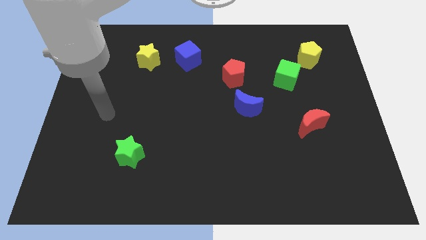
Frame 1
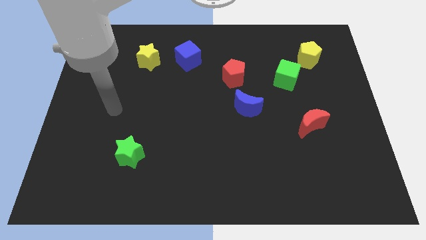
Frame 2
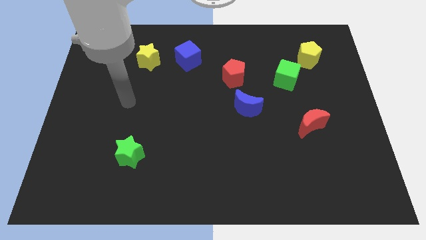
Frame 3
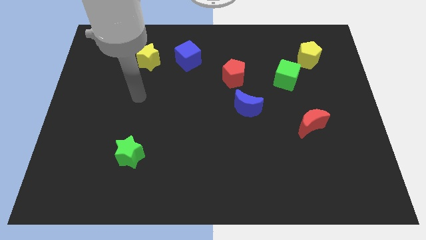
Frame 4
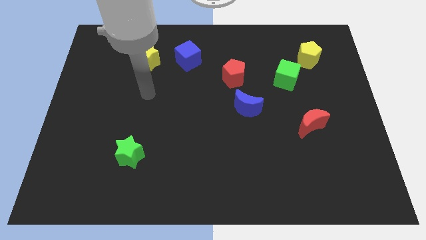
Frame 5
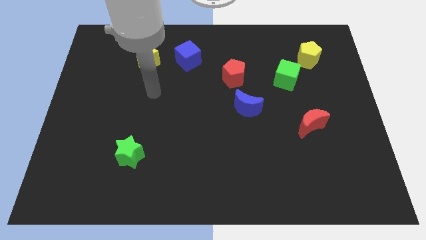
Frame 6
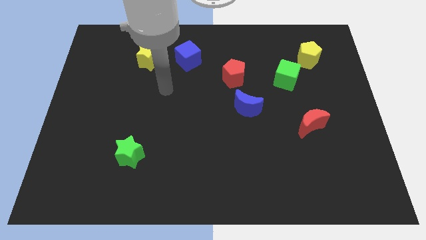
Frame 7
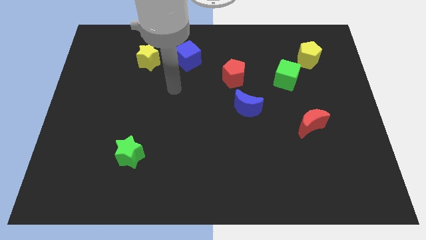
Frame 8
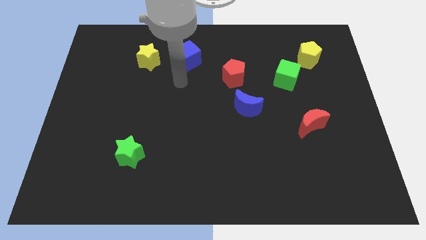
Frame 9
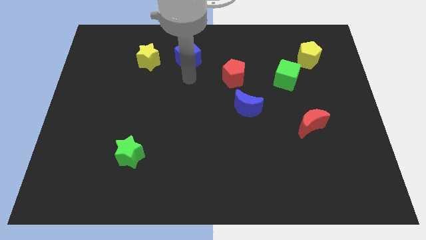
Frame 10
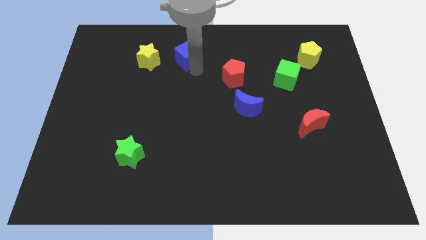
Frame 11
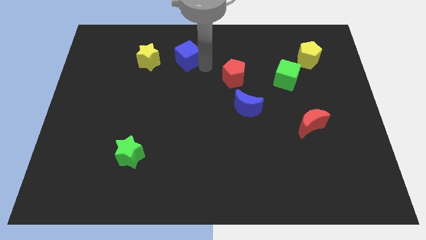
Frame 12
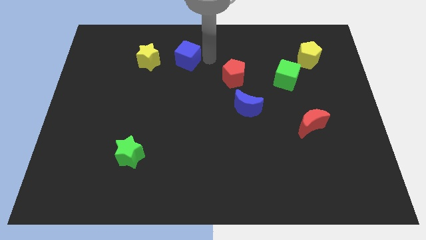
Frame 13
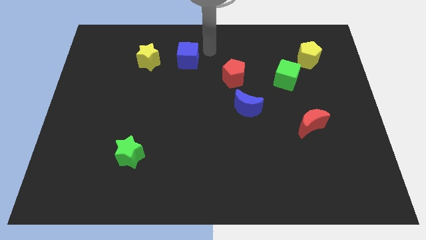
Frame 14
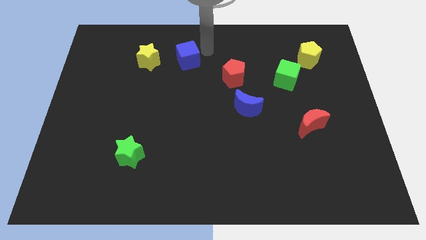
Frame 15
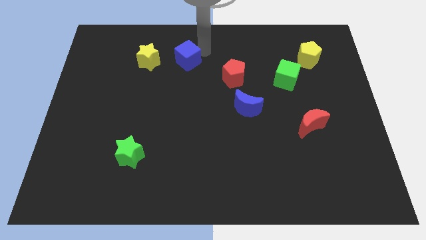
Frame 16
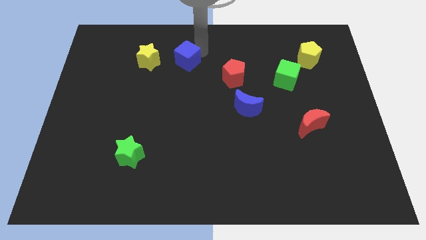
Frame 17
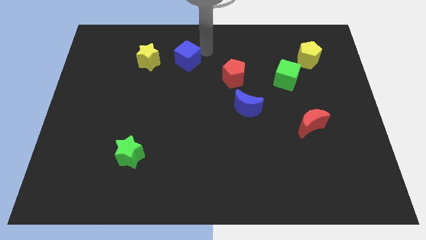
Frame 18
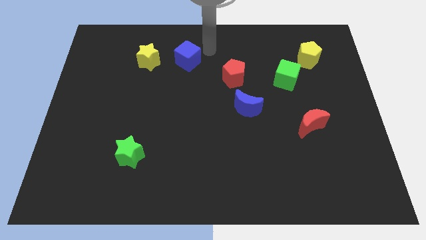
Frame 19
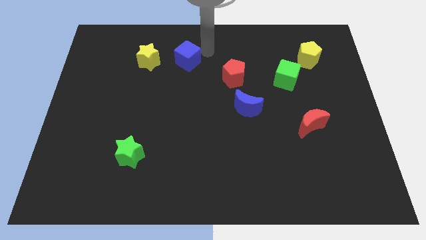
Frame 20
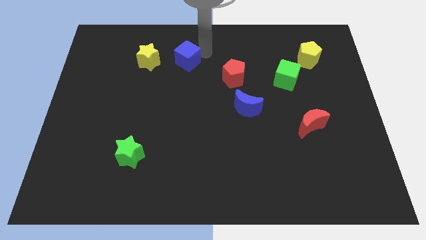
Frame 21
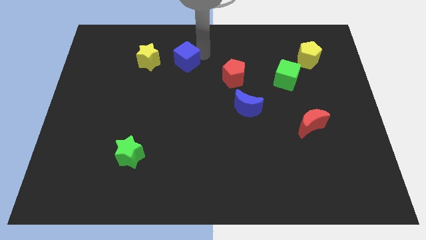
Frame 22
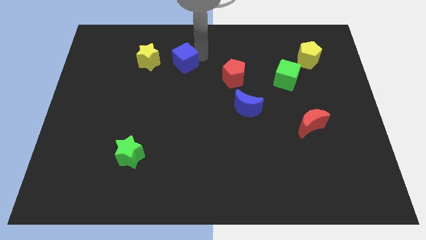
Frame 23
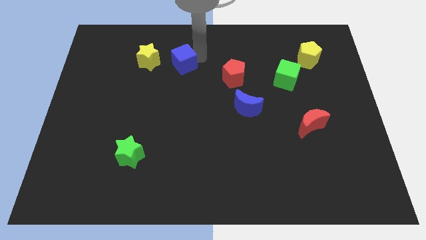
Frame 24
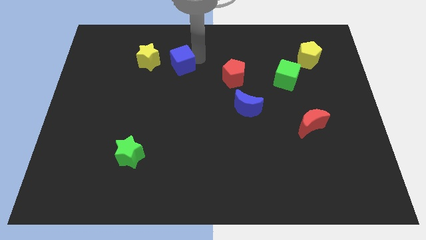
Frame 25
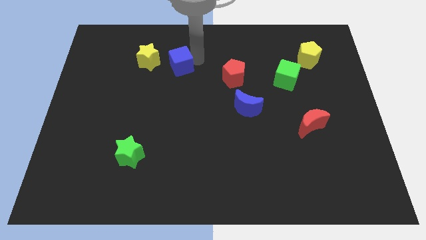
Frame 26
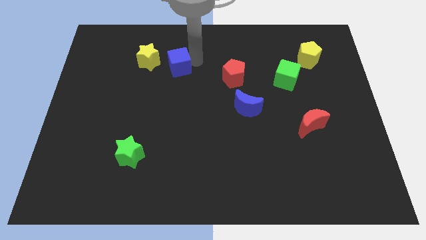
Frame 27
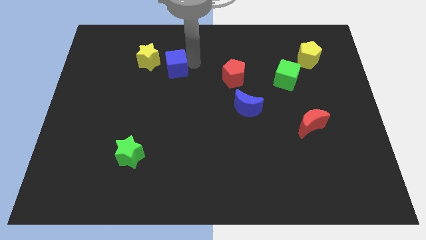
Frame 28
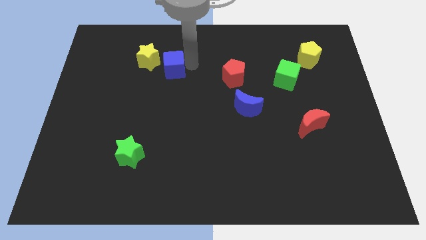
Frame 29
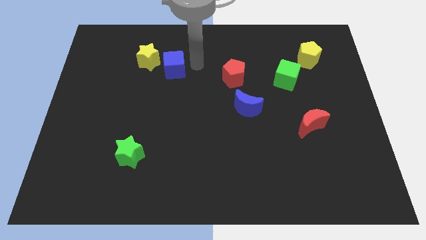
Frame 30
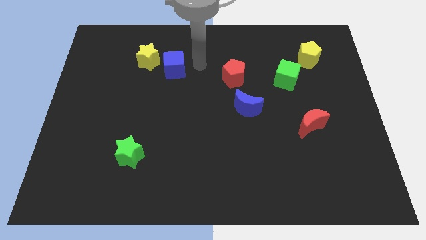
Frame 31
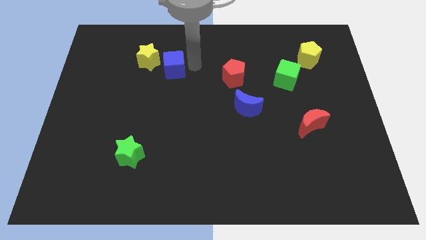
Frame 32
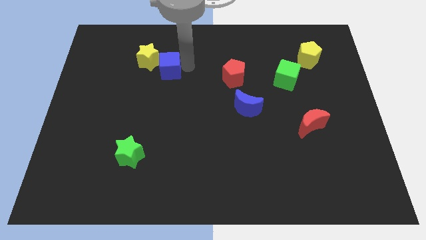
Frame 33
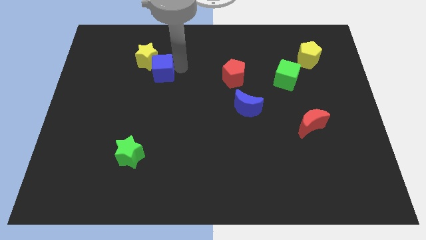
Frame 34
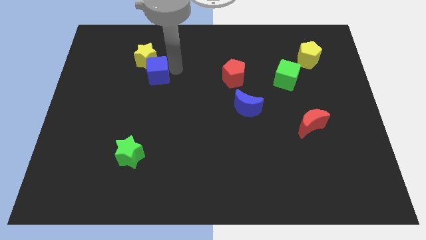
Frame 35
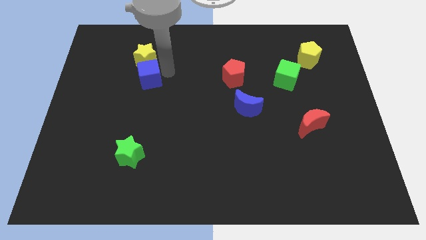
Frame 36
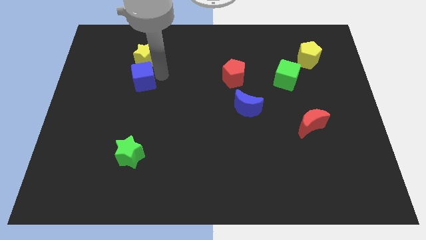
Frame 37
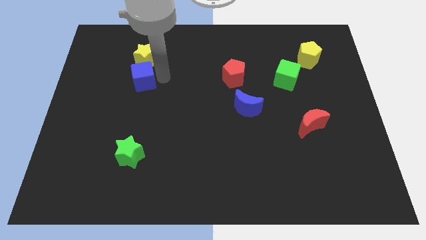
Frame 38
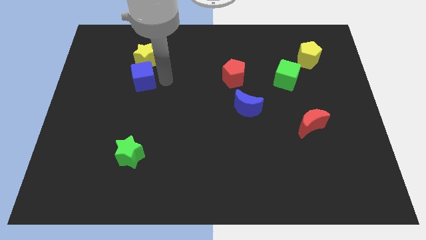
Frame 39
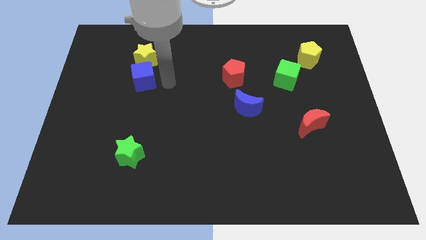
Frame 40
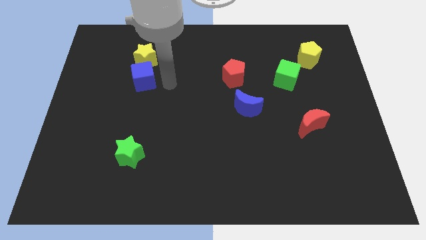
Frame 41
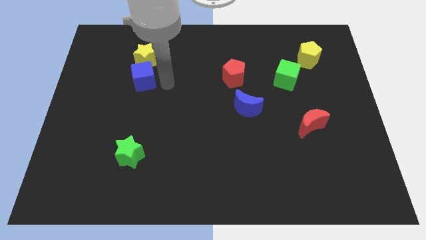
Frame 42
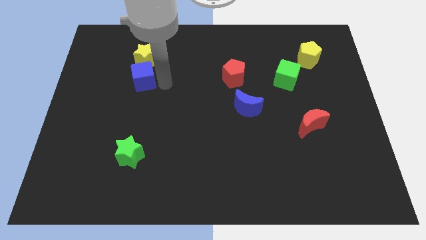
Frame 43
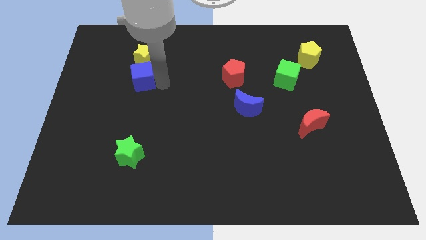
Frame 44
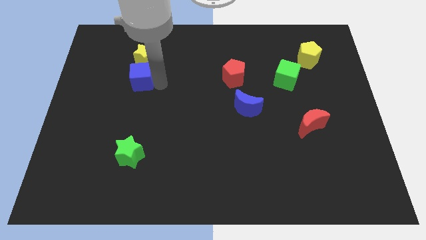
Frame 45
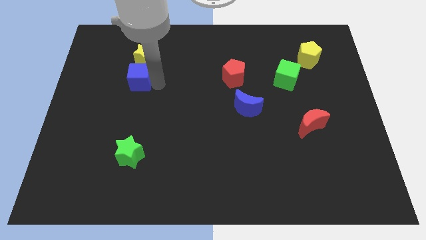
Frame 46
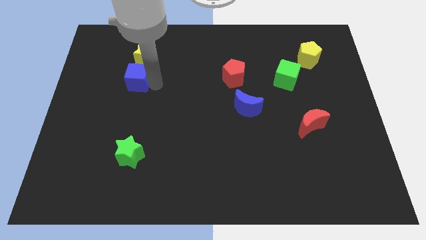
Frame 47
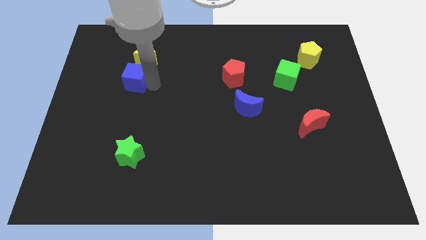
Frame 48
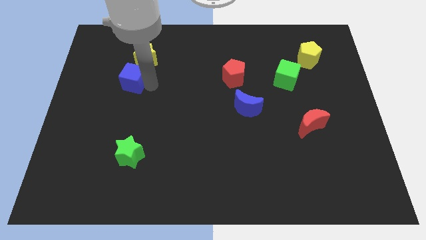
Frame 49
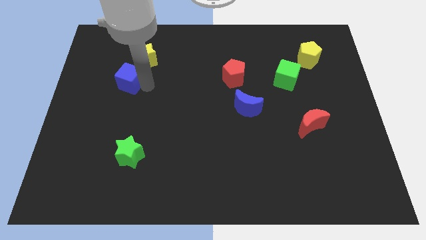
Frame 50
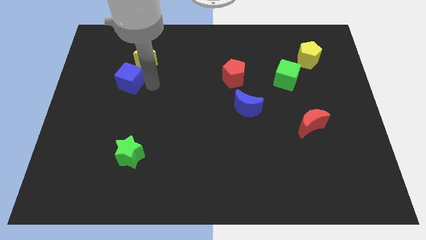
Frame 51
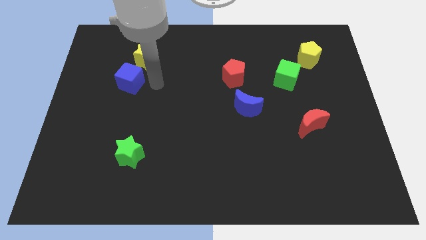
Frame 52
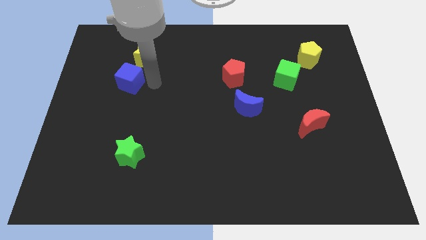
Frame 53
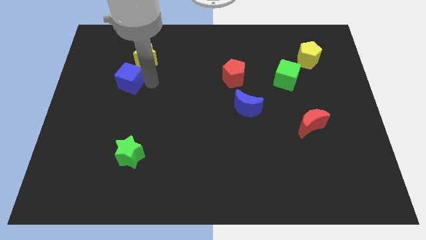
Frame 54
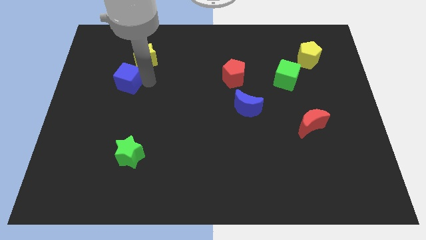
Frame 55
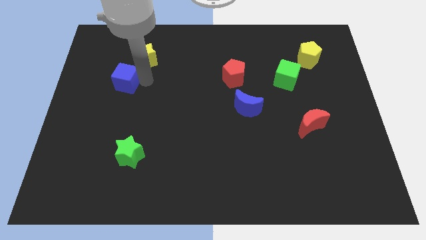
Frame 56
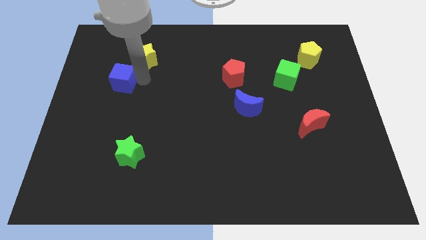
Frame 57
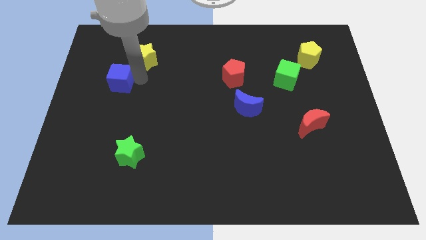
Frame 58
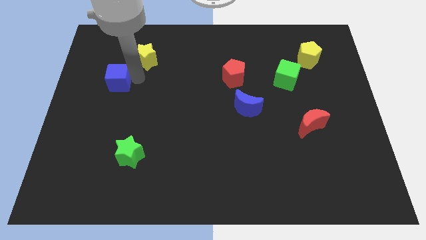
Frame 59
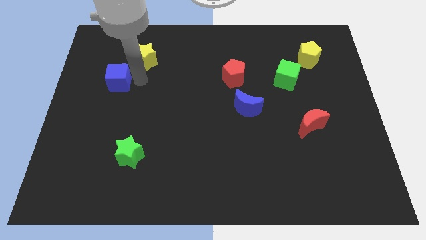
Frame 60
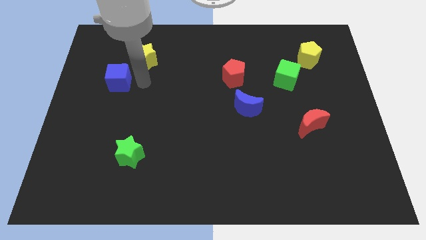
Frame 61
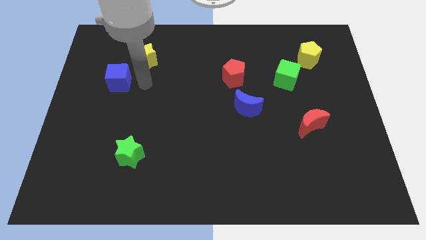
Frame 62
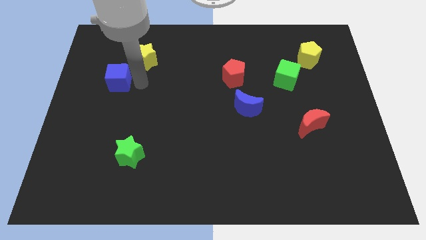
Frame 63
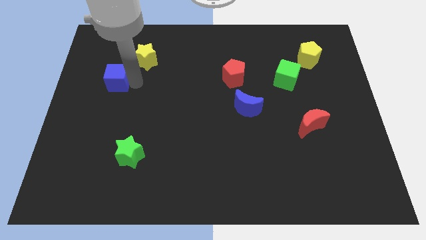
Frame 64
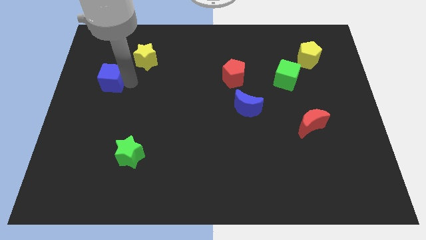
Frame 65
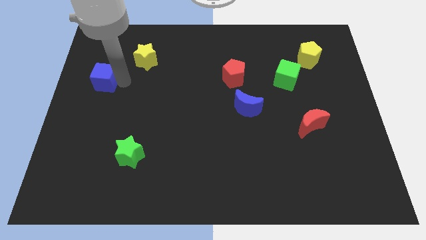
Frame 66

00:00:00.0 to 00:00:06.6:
push the blue cube to the left side
